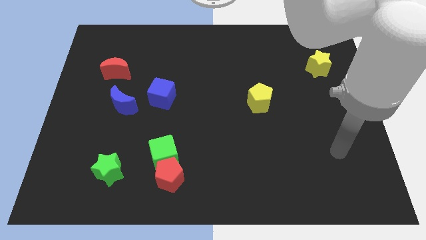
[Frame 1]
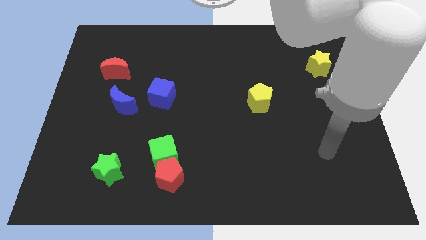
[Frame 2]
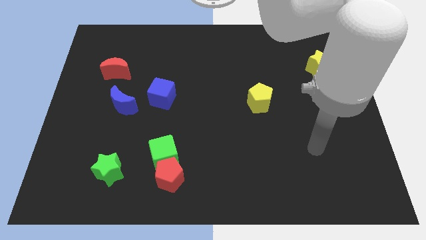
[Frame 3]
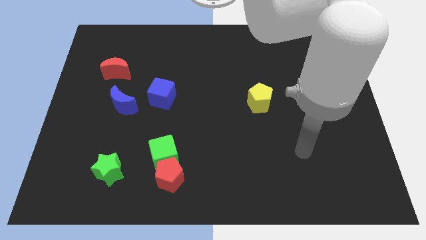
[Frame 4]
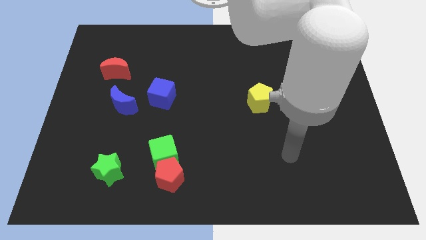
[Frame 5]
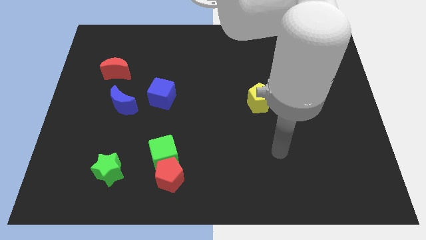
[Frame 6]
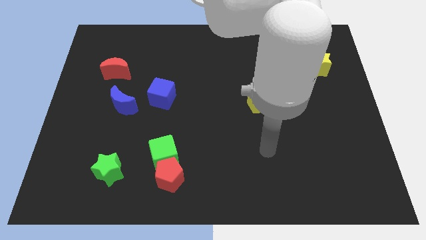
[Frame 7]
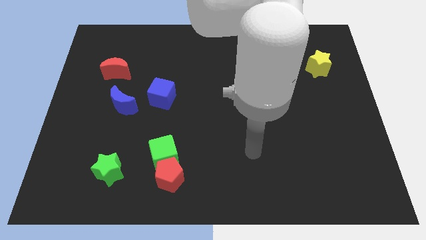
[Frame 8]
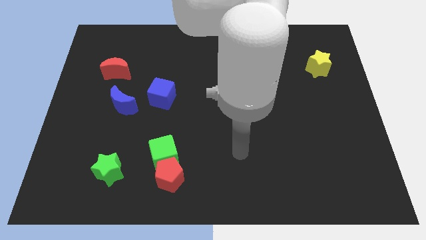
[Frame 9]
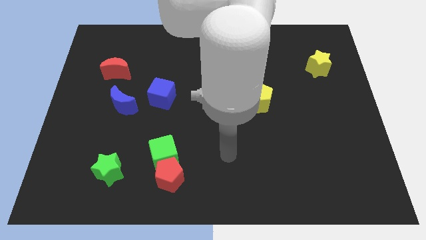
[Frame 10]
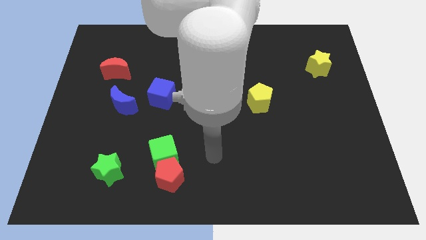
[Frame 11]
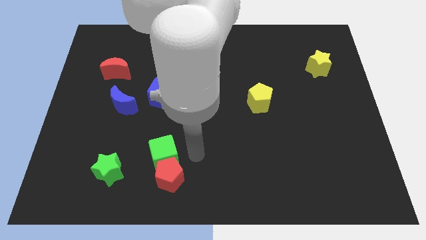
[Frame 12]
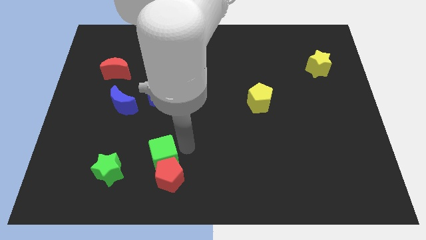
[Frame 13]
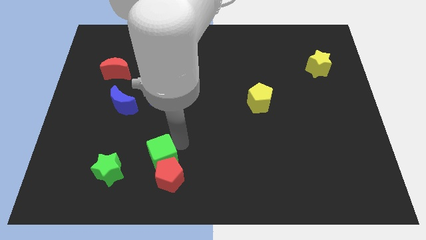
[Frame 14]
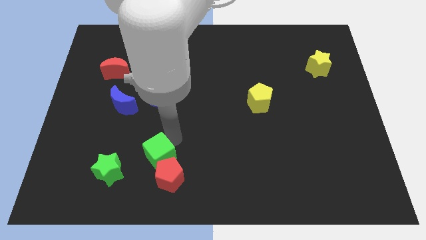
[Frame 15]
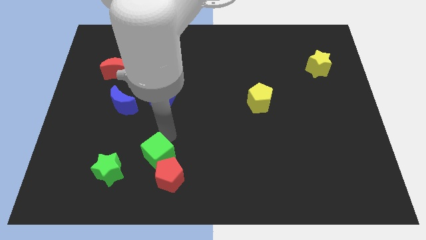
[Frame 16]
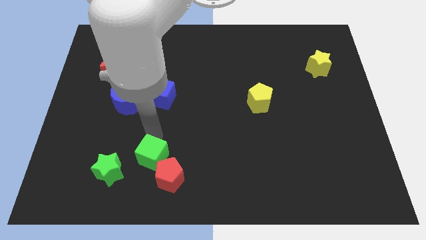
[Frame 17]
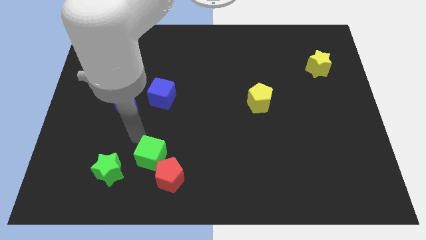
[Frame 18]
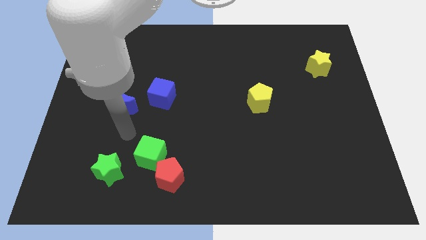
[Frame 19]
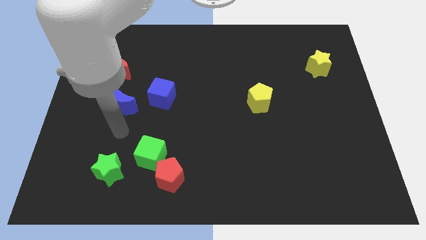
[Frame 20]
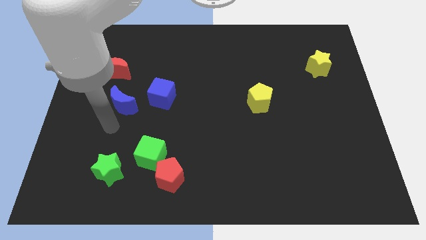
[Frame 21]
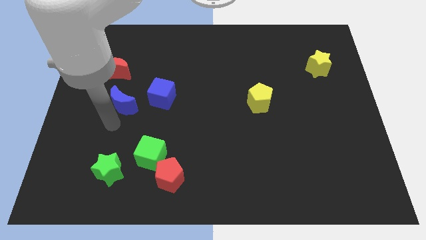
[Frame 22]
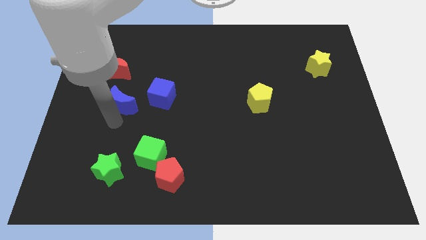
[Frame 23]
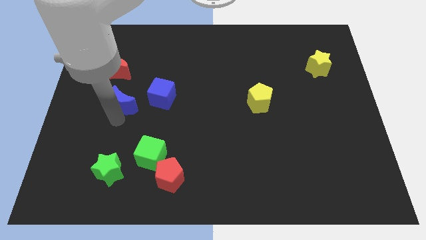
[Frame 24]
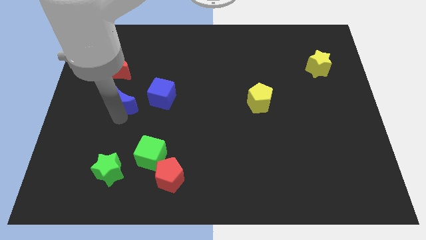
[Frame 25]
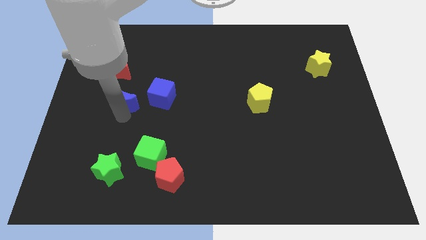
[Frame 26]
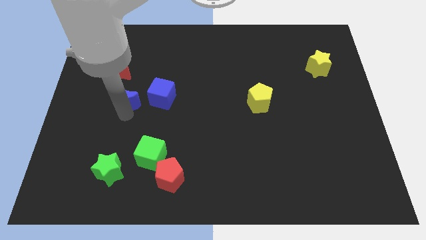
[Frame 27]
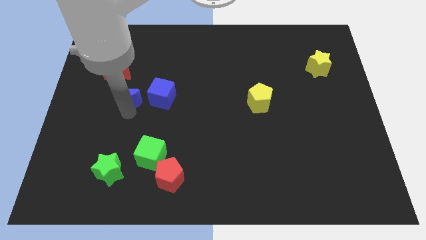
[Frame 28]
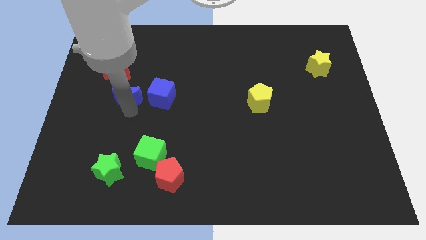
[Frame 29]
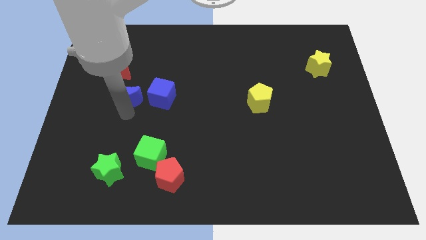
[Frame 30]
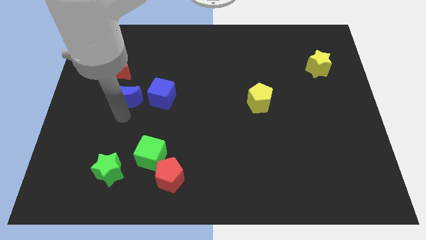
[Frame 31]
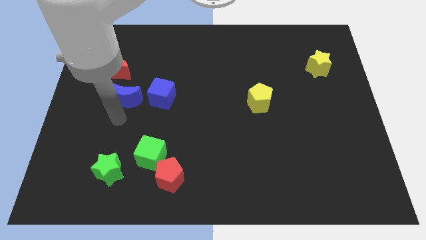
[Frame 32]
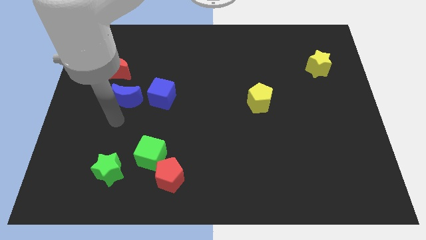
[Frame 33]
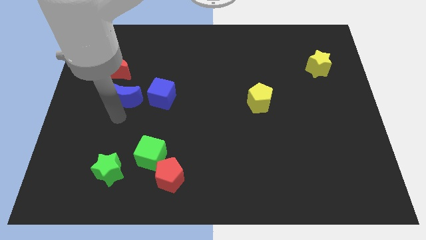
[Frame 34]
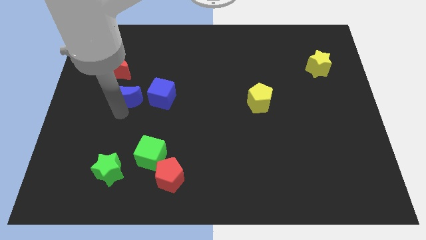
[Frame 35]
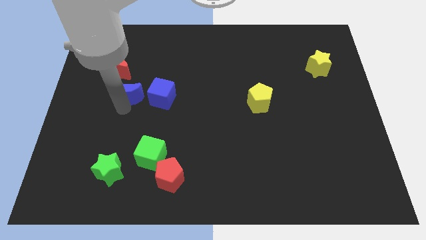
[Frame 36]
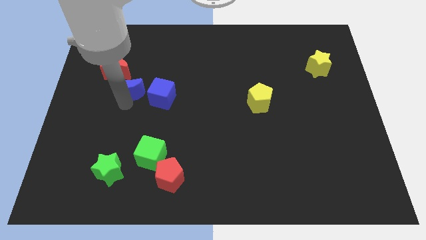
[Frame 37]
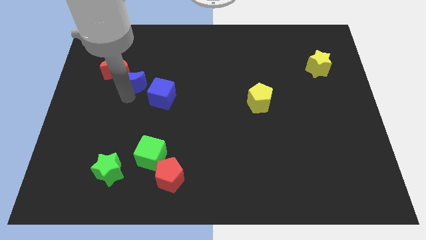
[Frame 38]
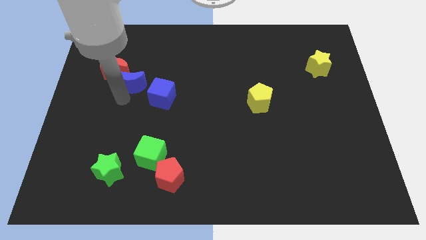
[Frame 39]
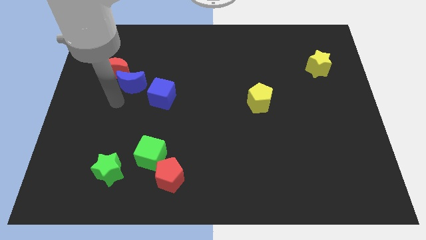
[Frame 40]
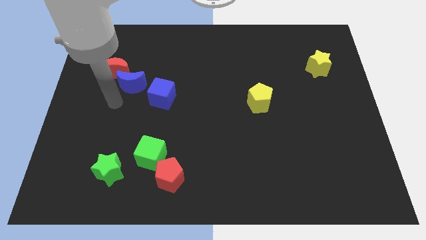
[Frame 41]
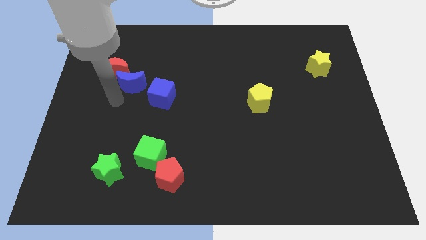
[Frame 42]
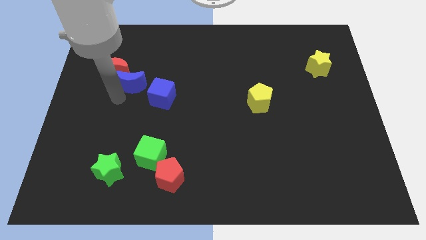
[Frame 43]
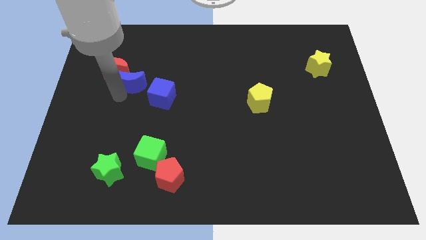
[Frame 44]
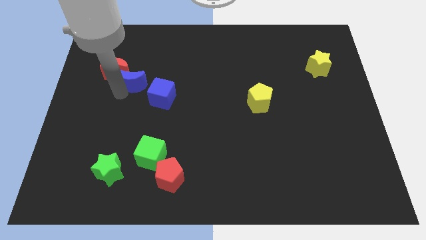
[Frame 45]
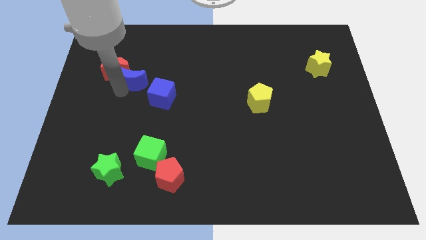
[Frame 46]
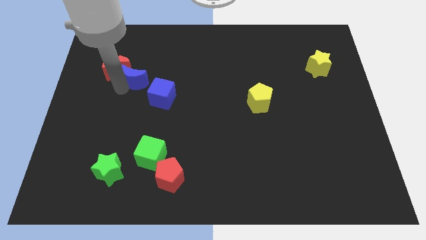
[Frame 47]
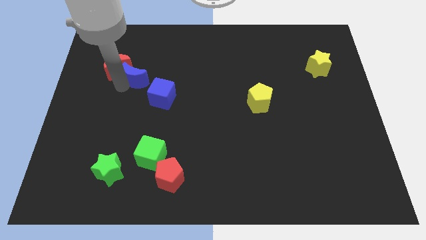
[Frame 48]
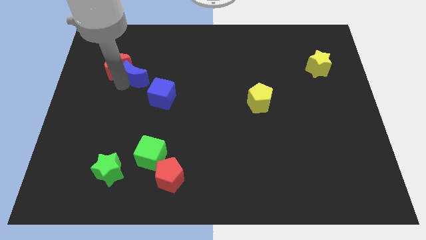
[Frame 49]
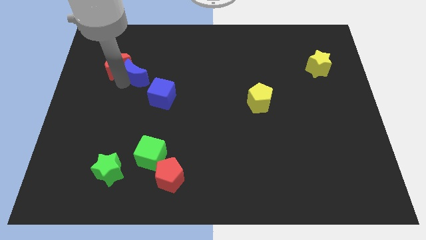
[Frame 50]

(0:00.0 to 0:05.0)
slightly push the blue moon up and then to the right

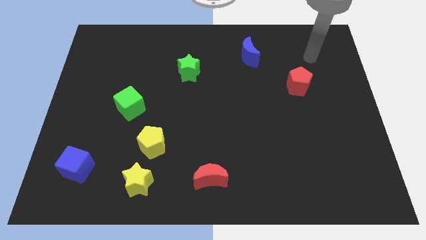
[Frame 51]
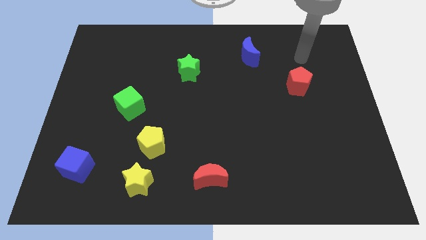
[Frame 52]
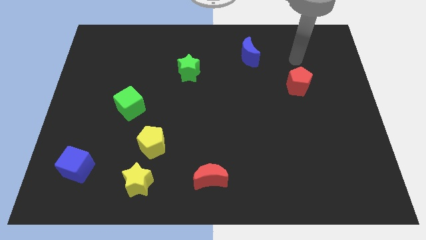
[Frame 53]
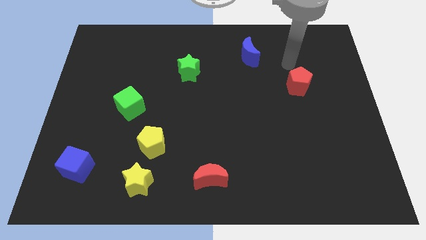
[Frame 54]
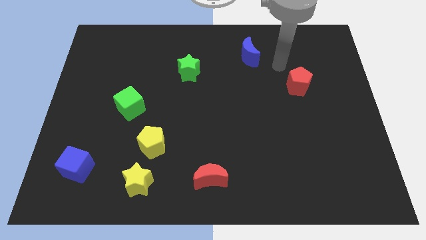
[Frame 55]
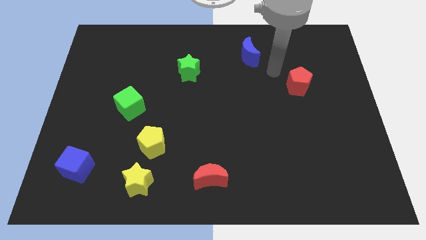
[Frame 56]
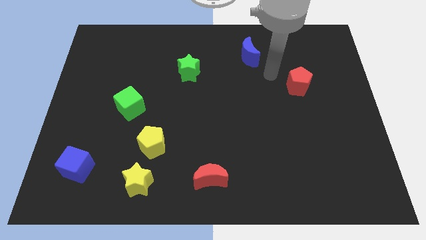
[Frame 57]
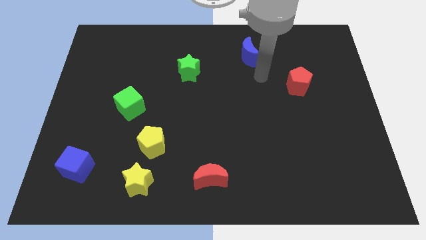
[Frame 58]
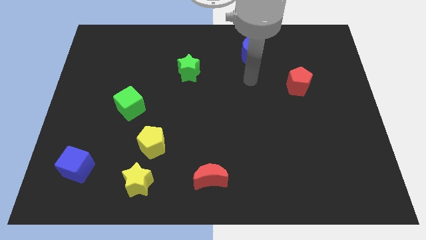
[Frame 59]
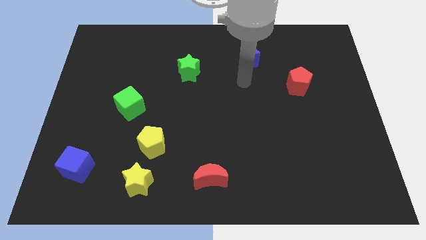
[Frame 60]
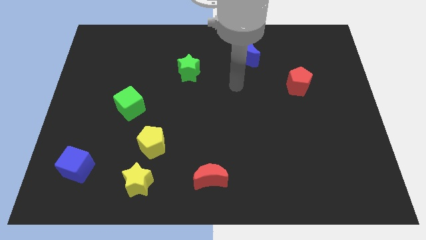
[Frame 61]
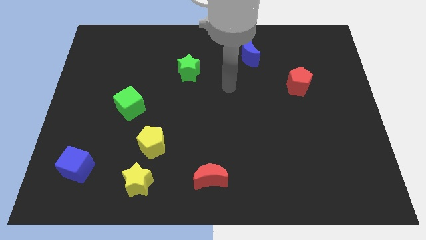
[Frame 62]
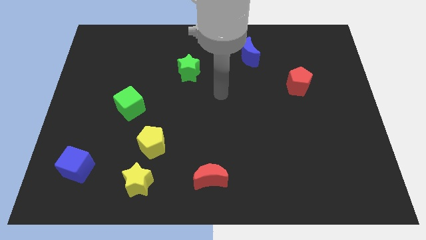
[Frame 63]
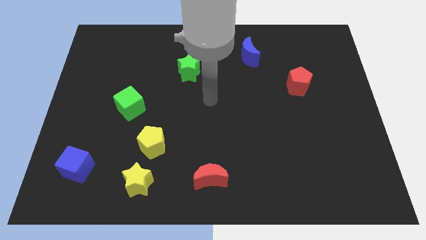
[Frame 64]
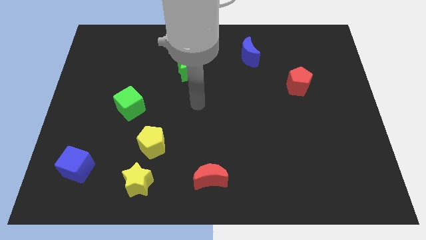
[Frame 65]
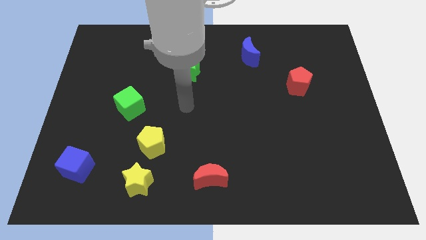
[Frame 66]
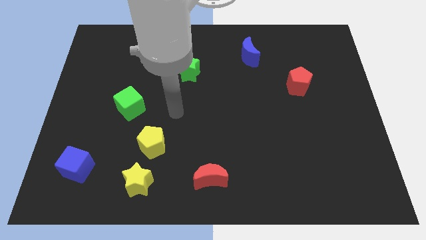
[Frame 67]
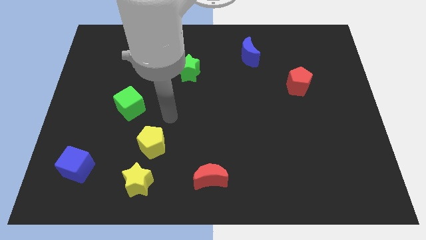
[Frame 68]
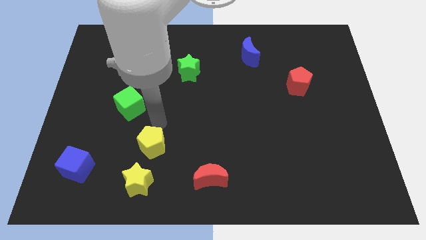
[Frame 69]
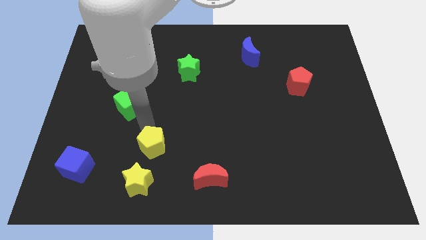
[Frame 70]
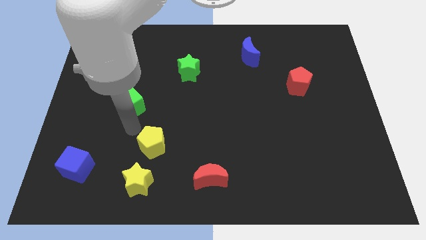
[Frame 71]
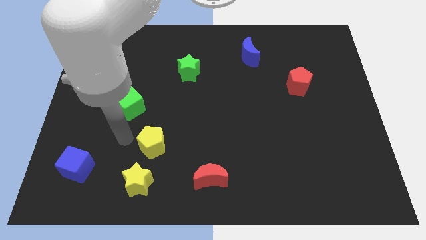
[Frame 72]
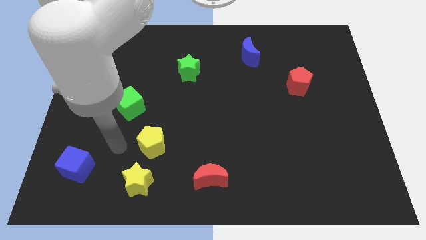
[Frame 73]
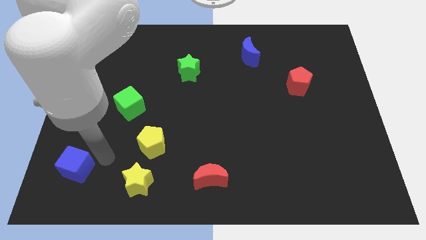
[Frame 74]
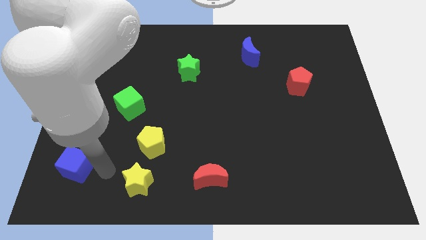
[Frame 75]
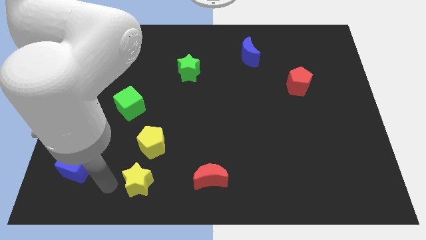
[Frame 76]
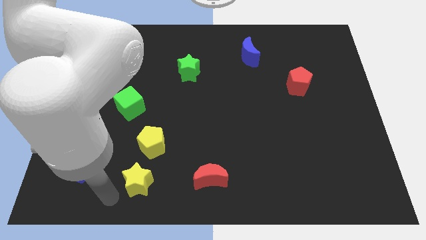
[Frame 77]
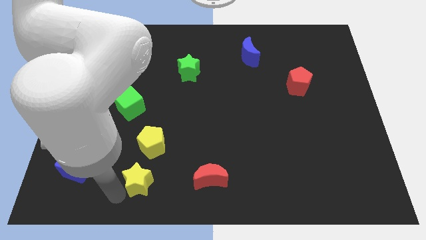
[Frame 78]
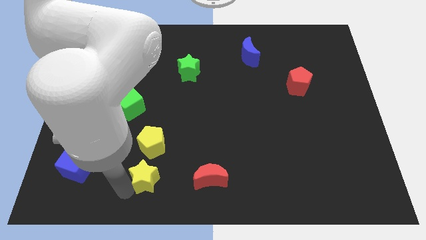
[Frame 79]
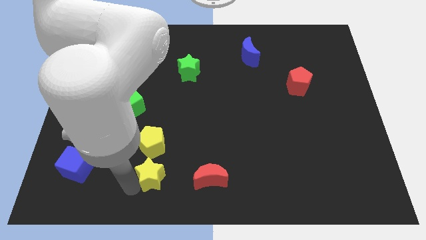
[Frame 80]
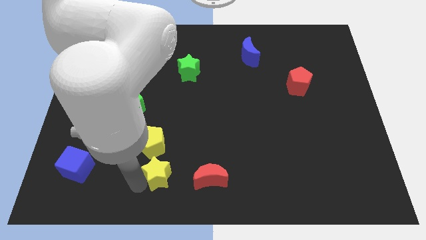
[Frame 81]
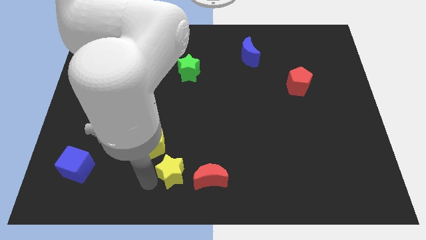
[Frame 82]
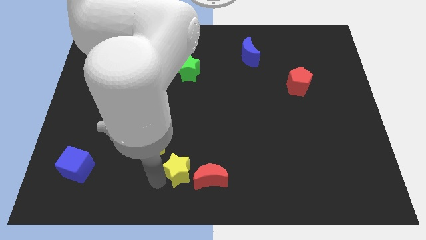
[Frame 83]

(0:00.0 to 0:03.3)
slightly slide the yellow star upwards and then to the right
